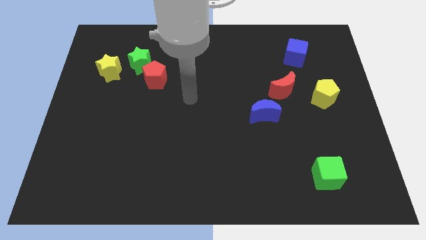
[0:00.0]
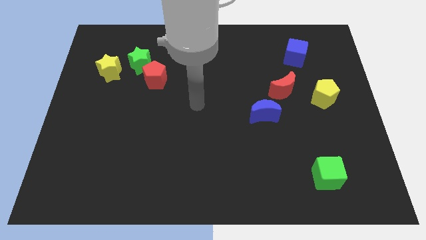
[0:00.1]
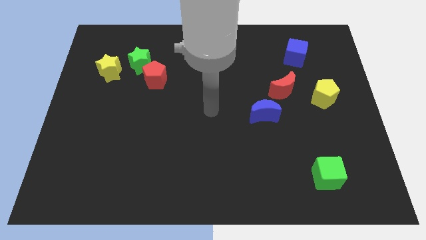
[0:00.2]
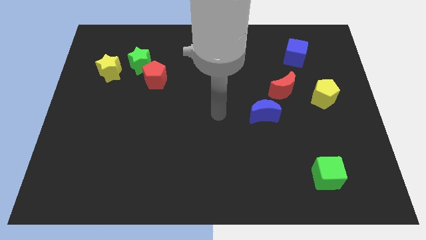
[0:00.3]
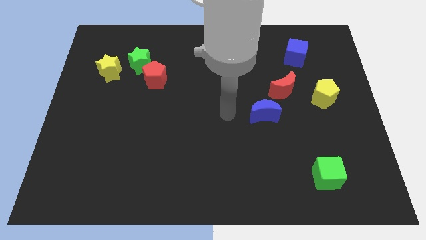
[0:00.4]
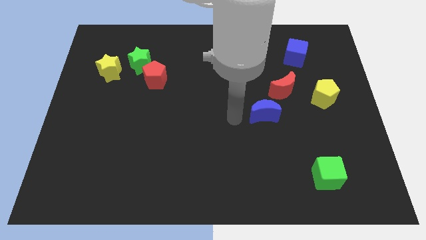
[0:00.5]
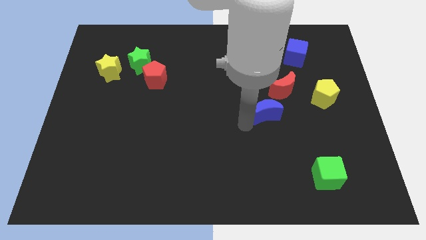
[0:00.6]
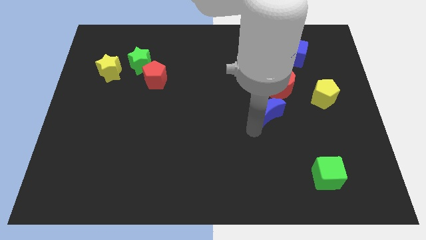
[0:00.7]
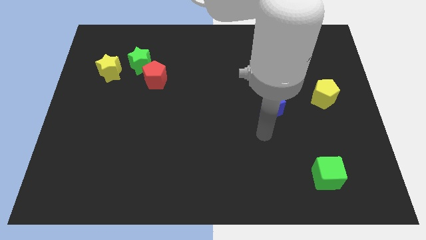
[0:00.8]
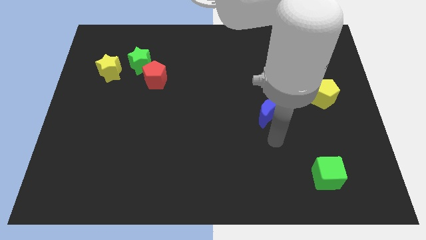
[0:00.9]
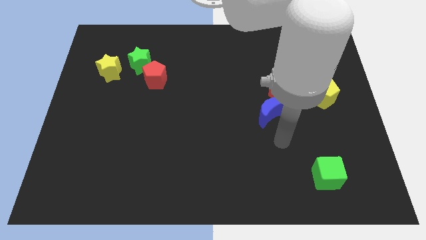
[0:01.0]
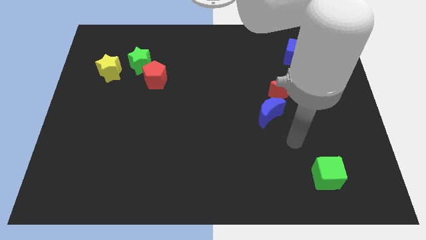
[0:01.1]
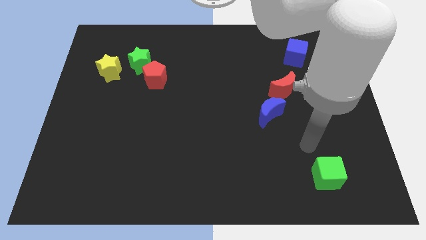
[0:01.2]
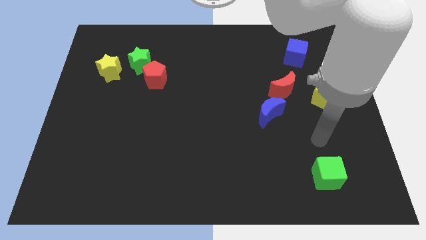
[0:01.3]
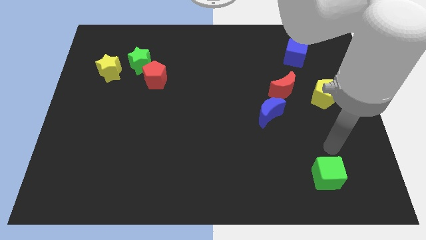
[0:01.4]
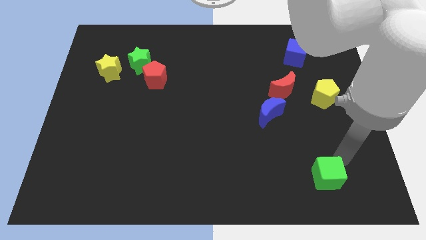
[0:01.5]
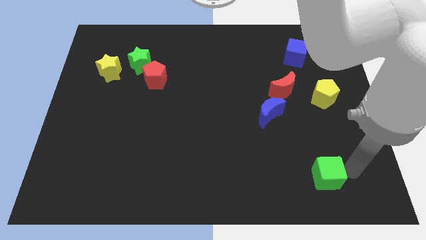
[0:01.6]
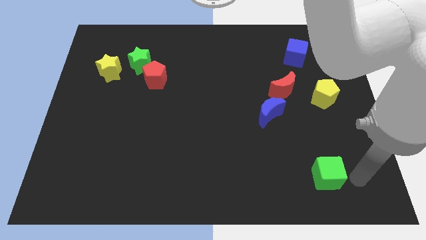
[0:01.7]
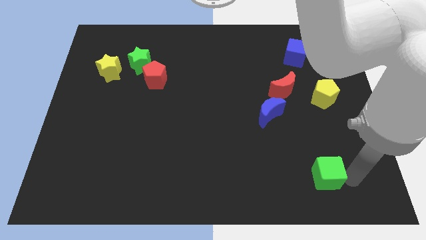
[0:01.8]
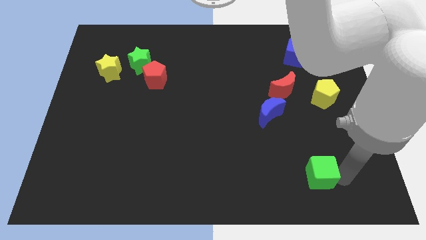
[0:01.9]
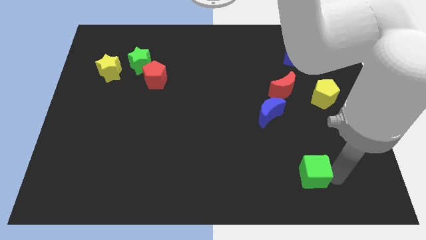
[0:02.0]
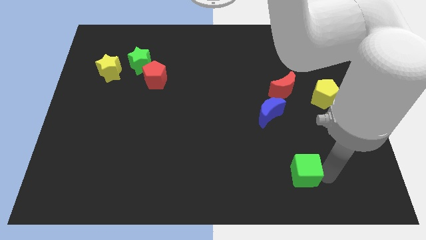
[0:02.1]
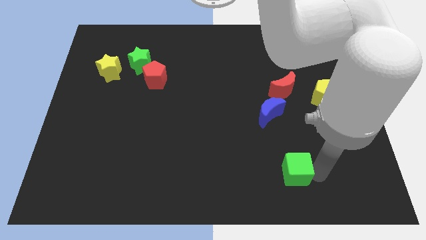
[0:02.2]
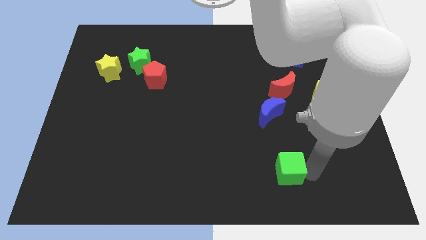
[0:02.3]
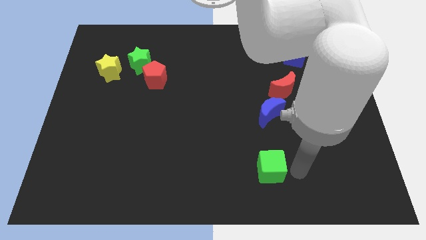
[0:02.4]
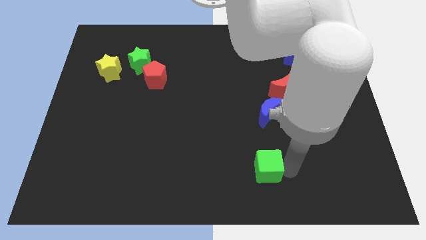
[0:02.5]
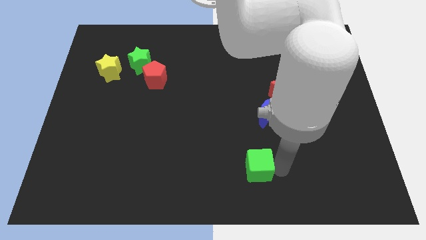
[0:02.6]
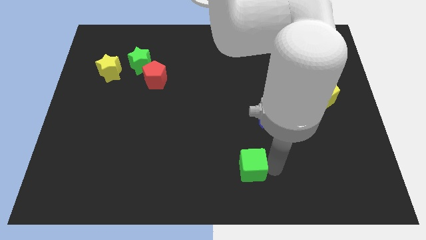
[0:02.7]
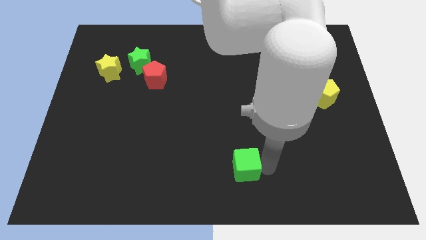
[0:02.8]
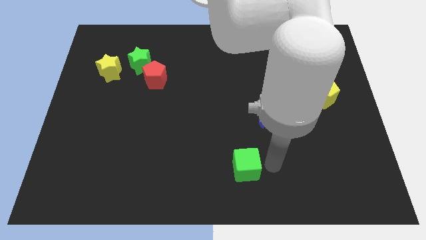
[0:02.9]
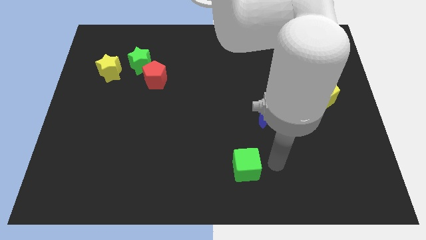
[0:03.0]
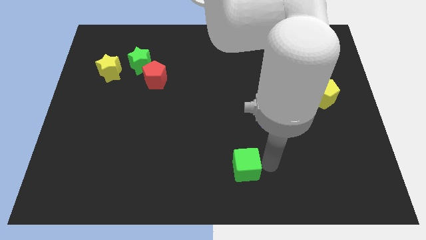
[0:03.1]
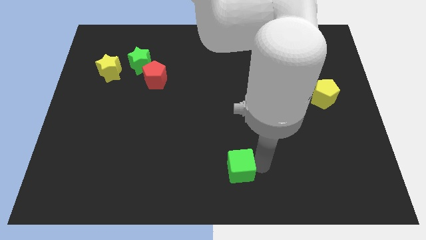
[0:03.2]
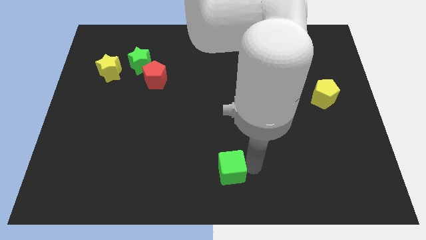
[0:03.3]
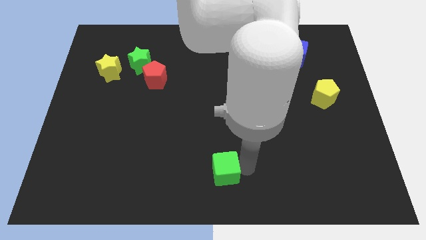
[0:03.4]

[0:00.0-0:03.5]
push the green cube left

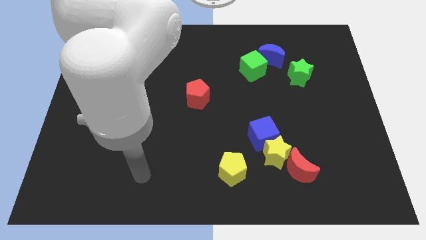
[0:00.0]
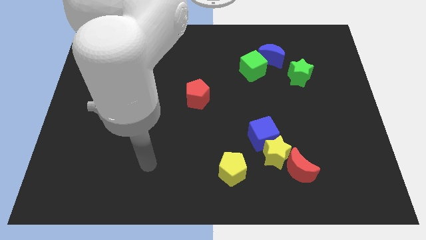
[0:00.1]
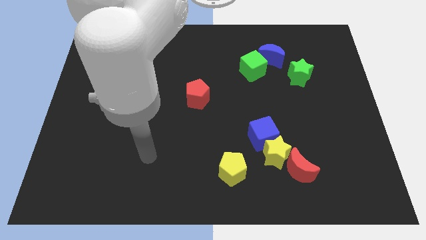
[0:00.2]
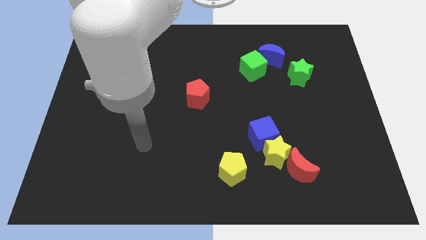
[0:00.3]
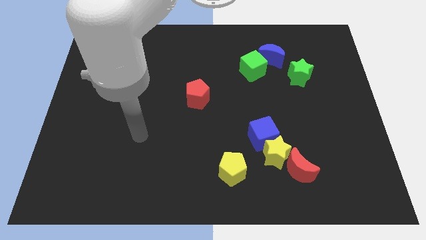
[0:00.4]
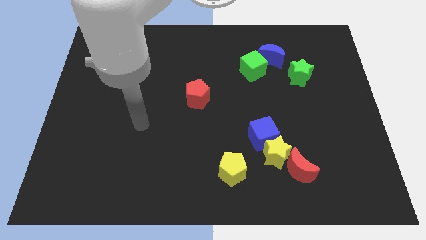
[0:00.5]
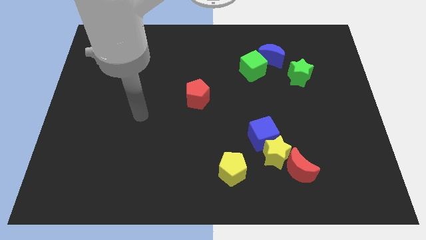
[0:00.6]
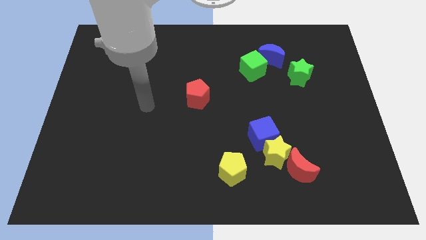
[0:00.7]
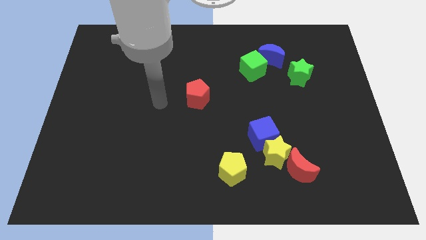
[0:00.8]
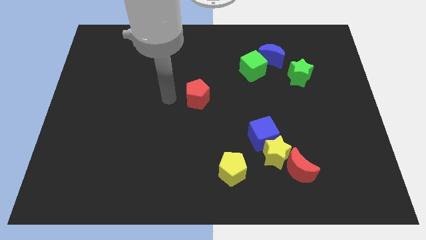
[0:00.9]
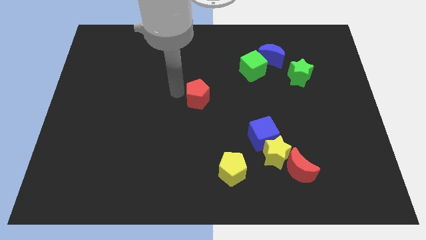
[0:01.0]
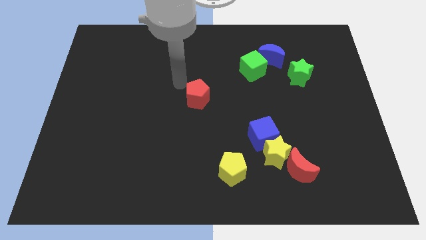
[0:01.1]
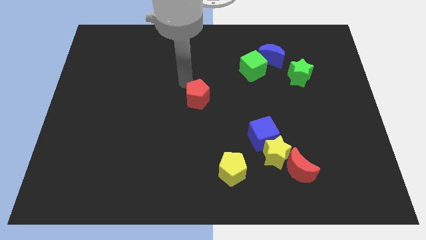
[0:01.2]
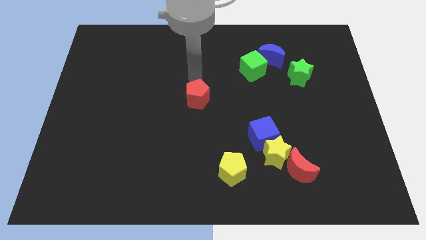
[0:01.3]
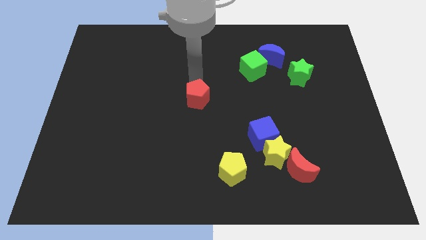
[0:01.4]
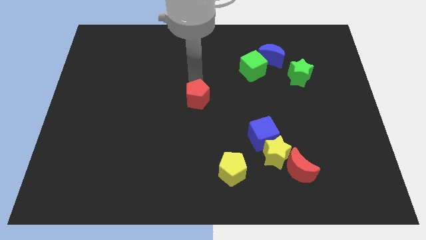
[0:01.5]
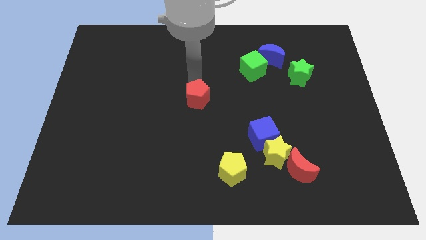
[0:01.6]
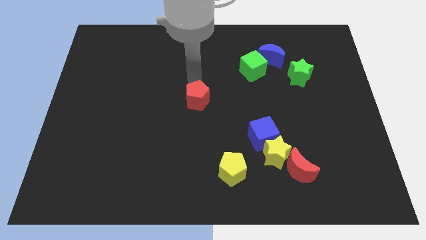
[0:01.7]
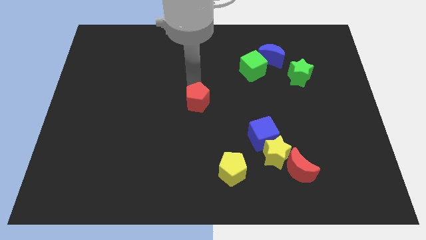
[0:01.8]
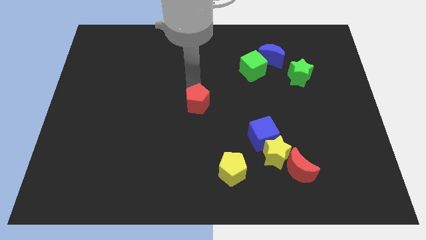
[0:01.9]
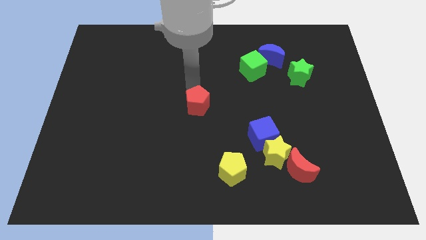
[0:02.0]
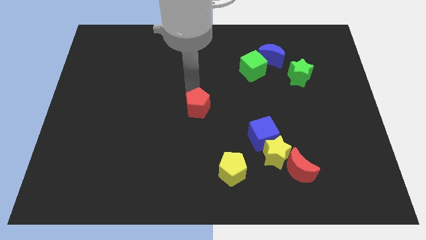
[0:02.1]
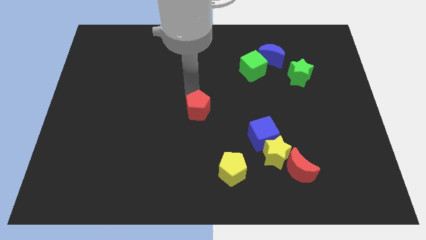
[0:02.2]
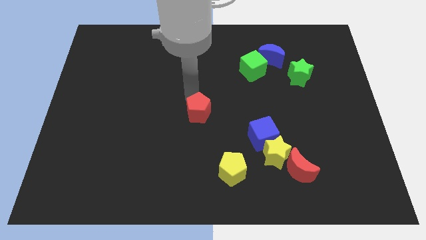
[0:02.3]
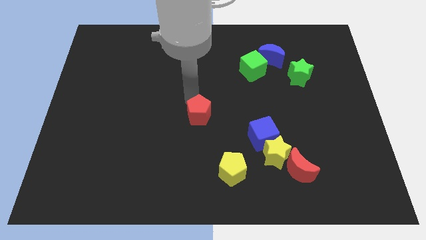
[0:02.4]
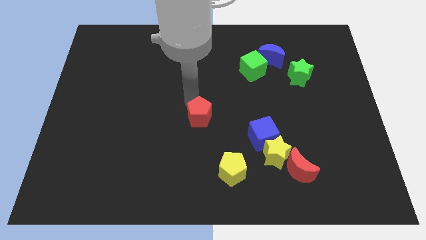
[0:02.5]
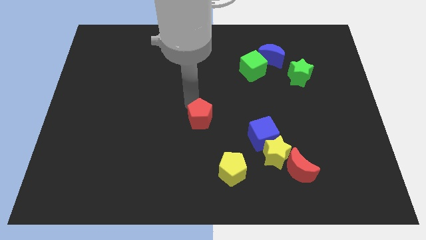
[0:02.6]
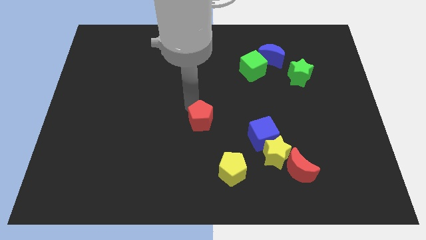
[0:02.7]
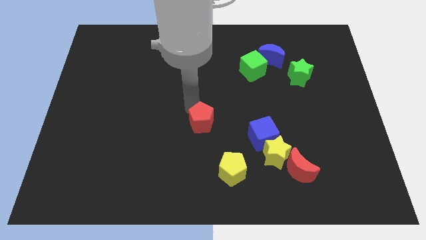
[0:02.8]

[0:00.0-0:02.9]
push the red pentagon a little bit downwards

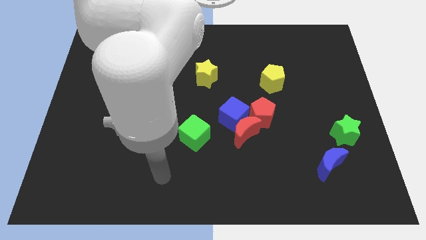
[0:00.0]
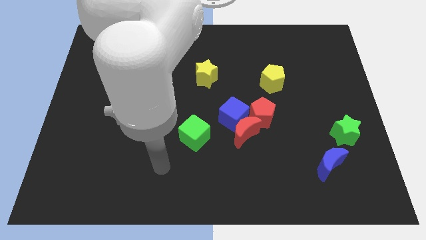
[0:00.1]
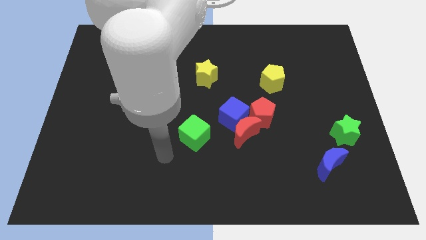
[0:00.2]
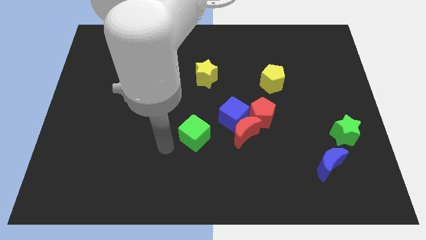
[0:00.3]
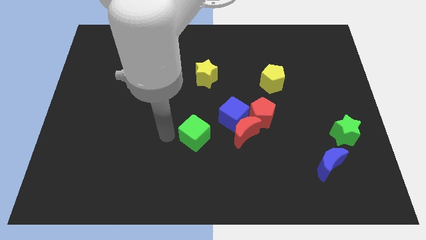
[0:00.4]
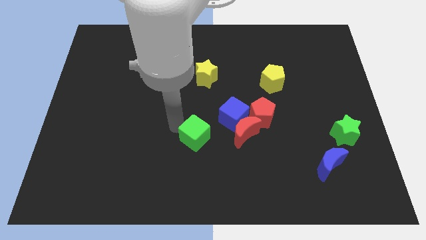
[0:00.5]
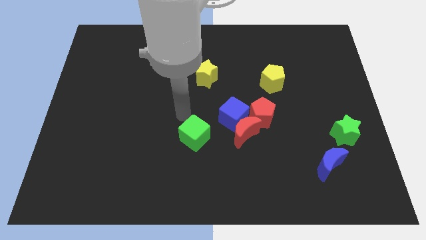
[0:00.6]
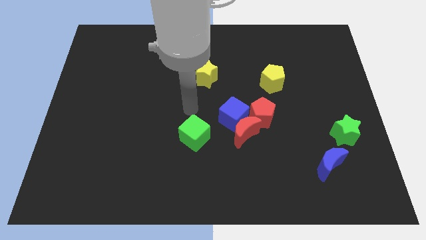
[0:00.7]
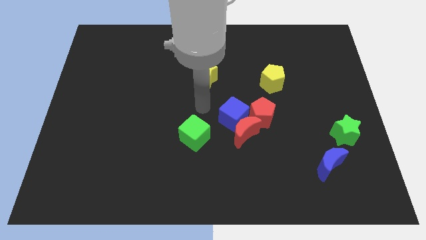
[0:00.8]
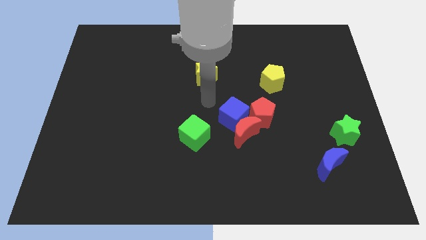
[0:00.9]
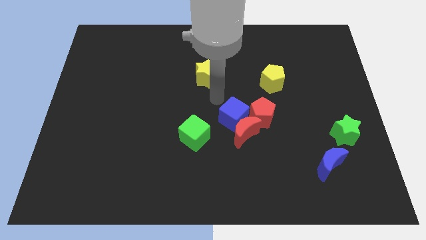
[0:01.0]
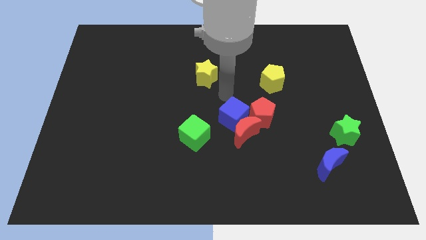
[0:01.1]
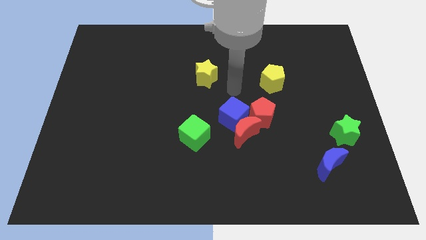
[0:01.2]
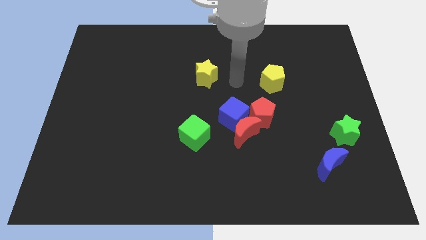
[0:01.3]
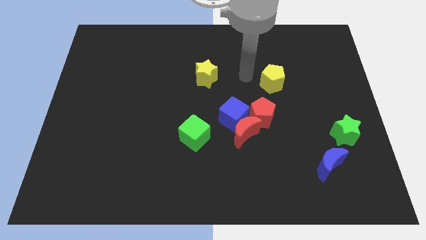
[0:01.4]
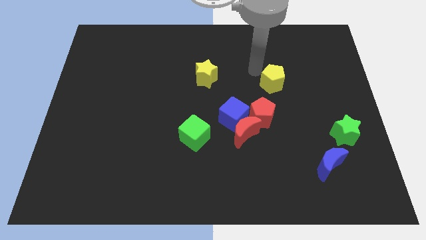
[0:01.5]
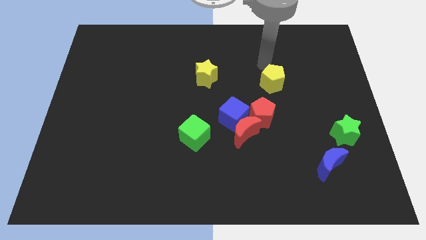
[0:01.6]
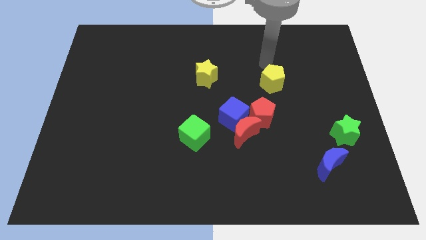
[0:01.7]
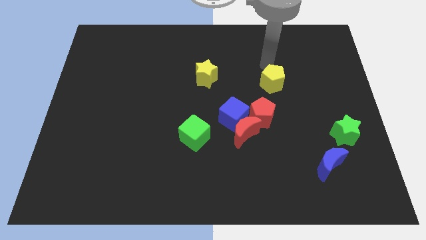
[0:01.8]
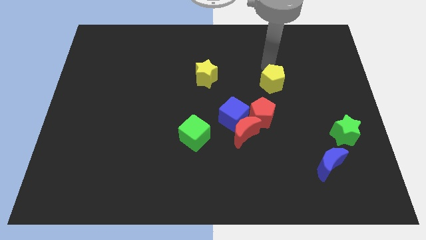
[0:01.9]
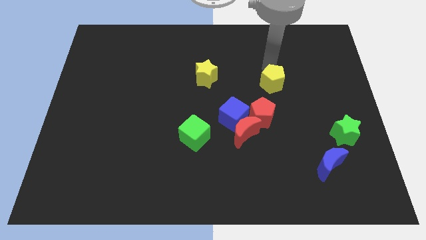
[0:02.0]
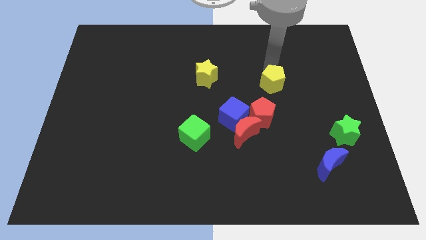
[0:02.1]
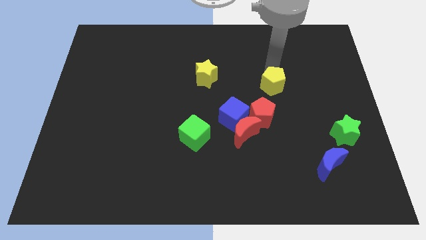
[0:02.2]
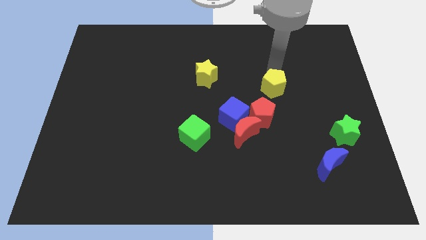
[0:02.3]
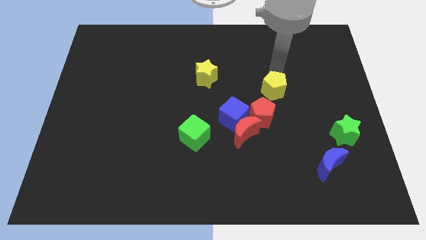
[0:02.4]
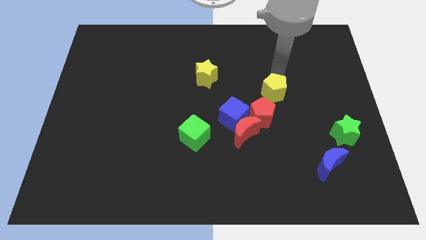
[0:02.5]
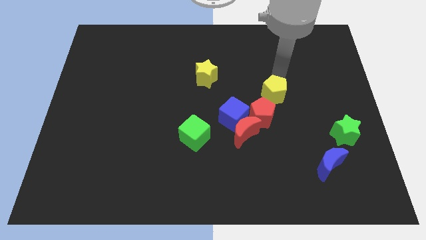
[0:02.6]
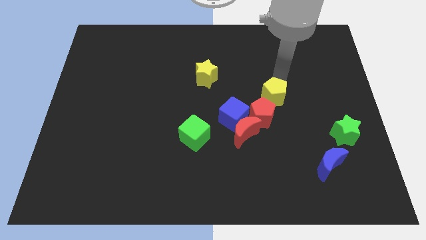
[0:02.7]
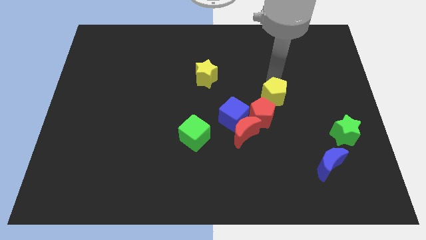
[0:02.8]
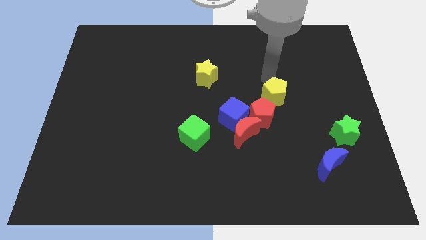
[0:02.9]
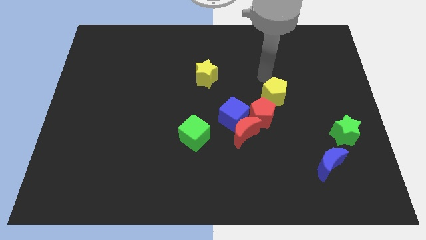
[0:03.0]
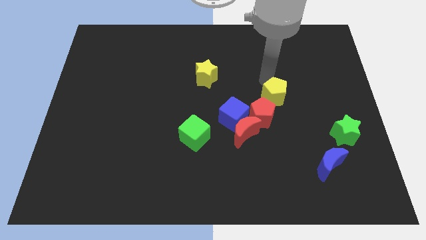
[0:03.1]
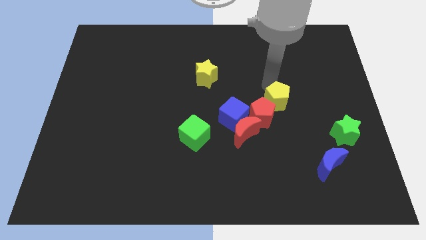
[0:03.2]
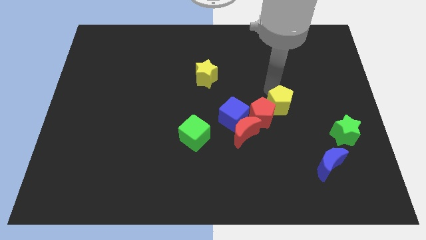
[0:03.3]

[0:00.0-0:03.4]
push the yellow pentagon a bit down
